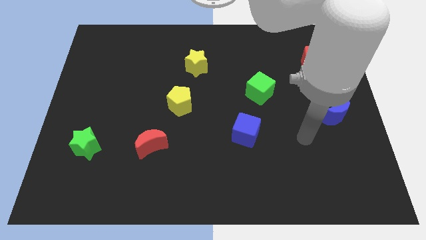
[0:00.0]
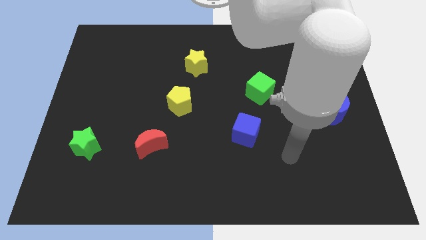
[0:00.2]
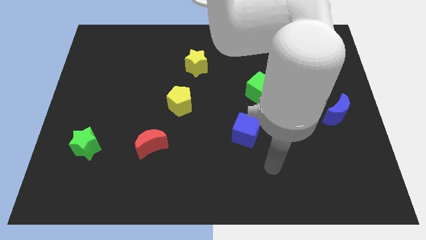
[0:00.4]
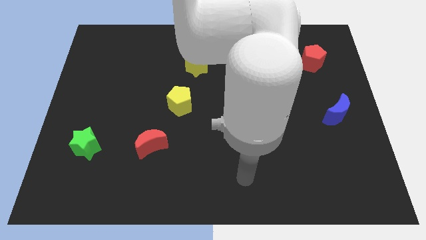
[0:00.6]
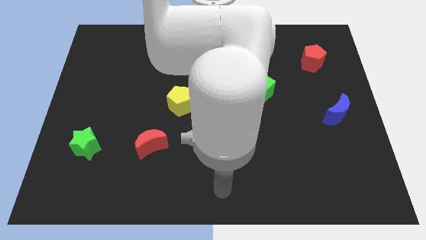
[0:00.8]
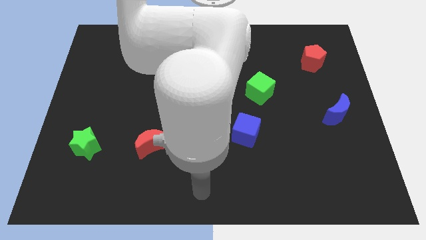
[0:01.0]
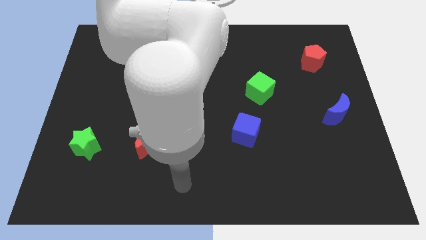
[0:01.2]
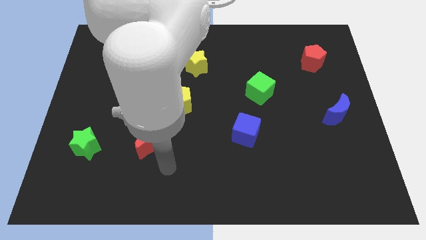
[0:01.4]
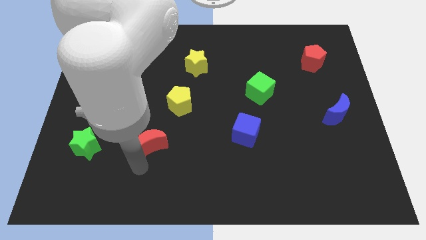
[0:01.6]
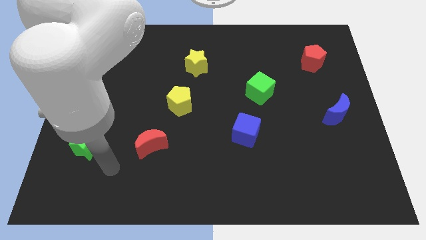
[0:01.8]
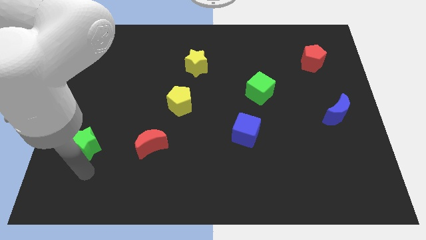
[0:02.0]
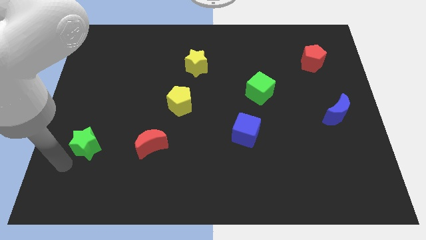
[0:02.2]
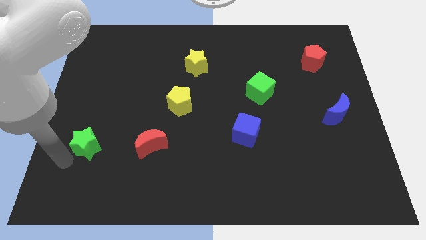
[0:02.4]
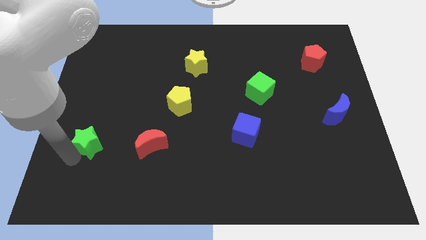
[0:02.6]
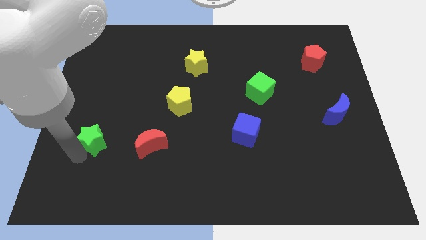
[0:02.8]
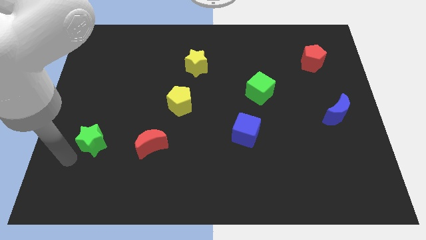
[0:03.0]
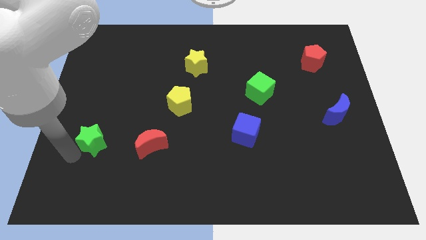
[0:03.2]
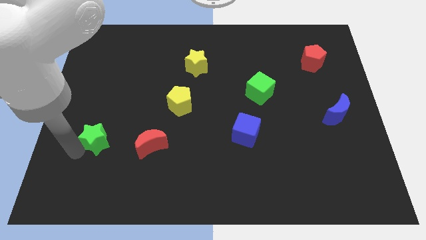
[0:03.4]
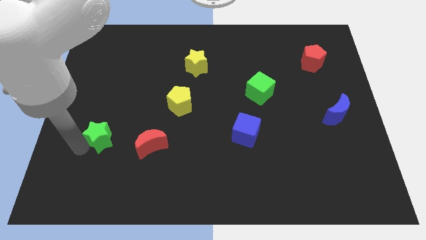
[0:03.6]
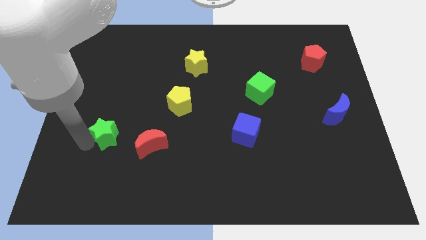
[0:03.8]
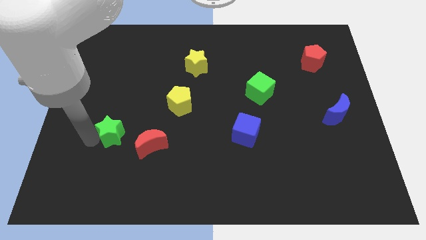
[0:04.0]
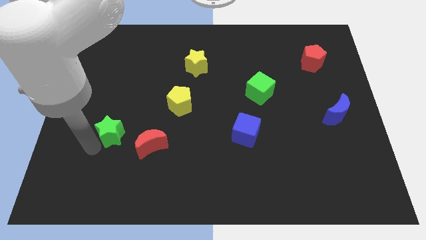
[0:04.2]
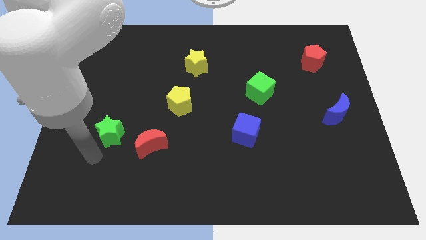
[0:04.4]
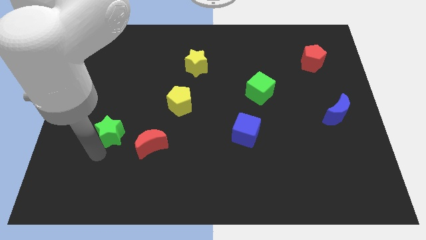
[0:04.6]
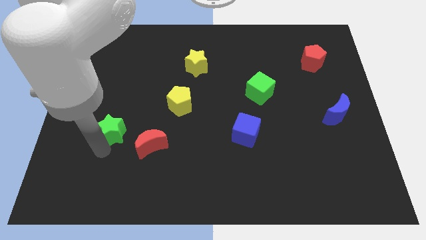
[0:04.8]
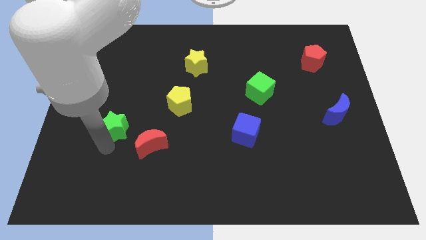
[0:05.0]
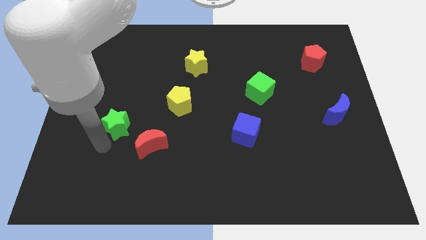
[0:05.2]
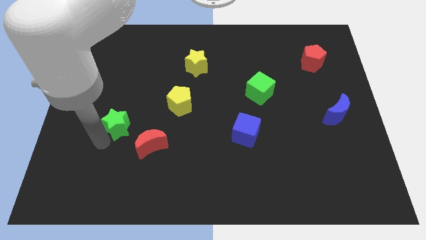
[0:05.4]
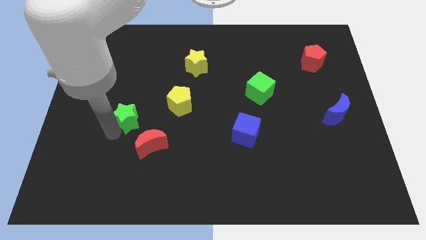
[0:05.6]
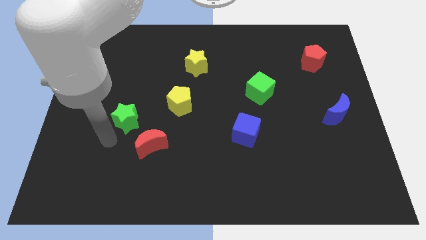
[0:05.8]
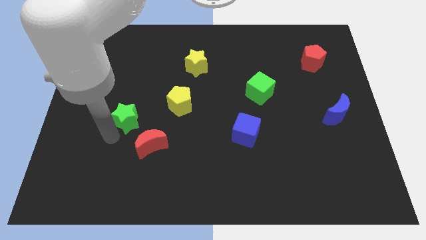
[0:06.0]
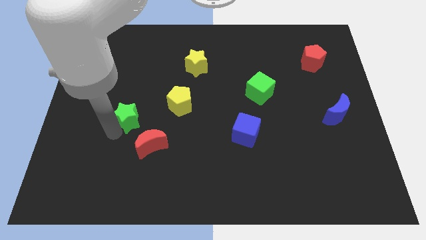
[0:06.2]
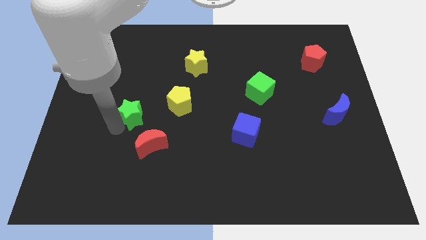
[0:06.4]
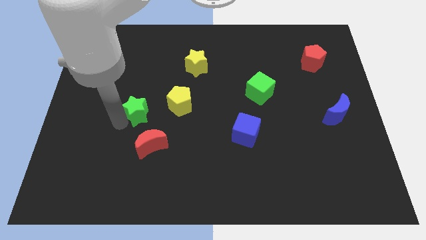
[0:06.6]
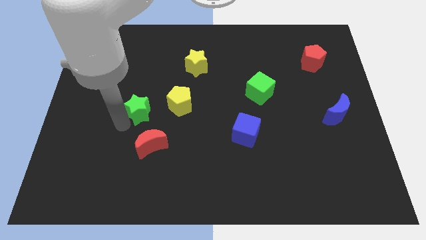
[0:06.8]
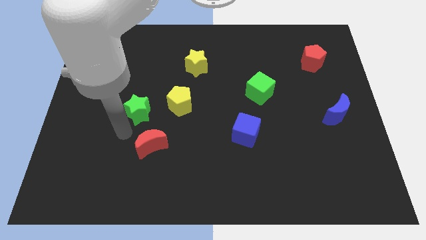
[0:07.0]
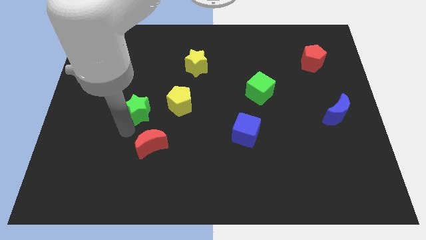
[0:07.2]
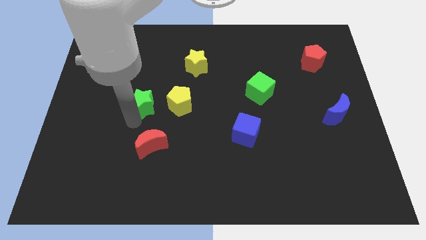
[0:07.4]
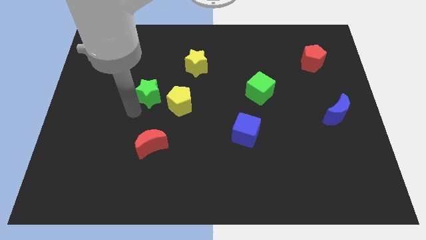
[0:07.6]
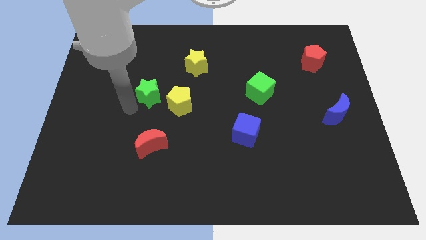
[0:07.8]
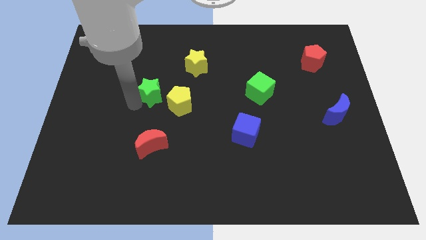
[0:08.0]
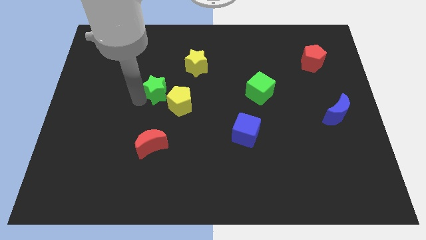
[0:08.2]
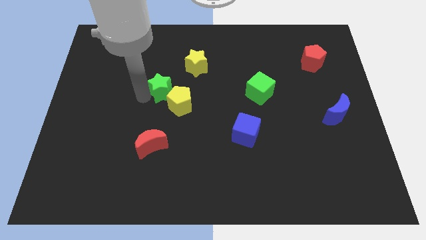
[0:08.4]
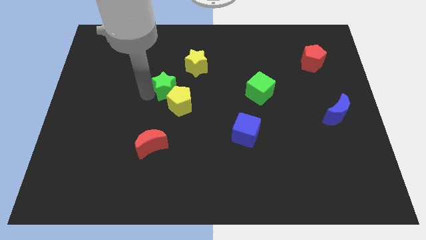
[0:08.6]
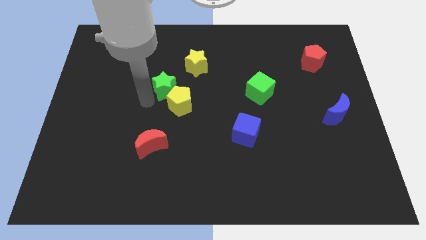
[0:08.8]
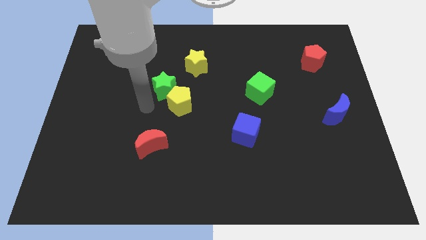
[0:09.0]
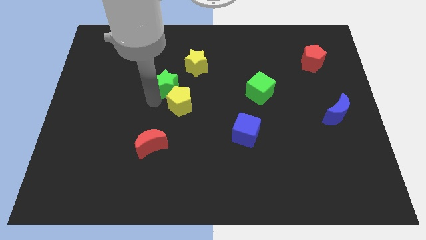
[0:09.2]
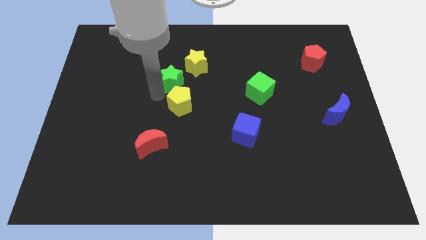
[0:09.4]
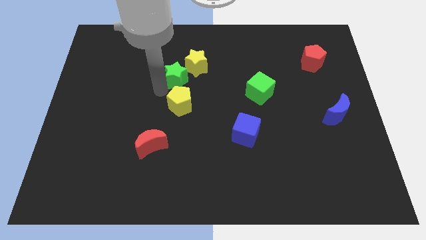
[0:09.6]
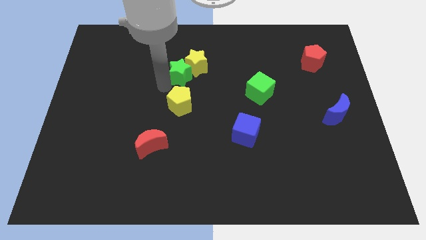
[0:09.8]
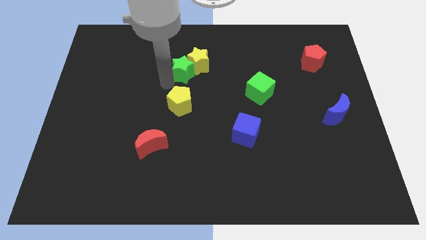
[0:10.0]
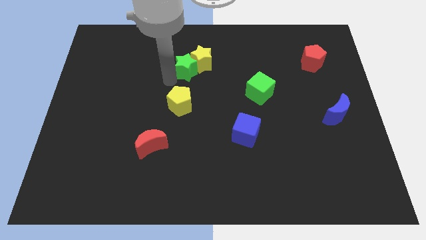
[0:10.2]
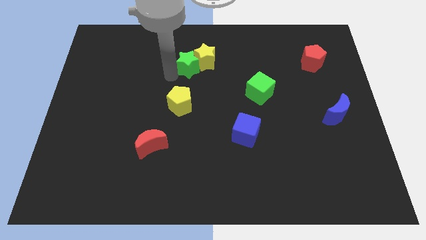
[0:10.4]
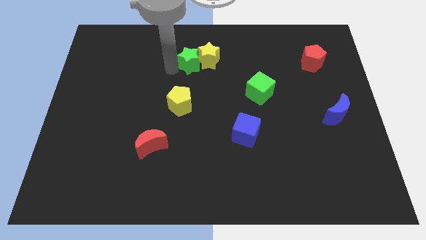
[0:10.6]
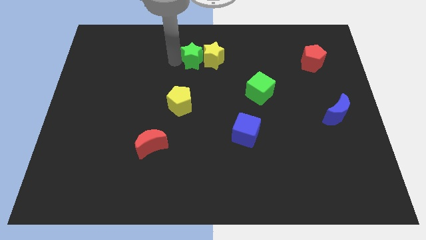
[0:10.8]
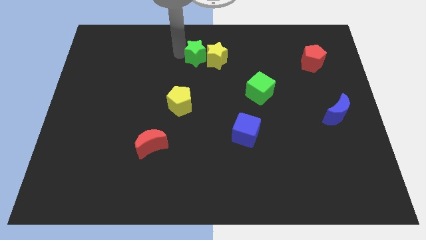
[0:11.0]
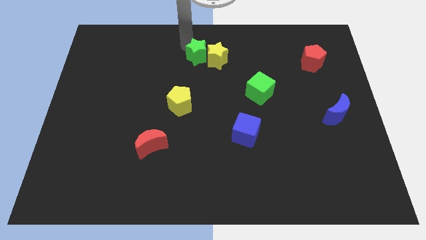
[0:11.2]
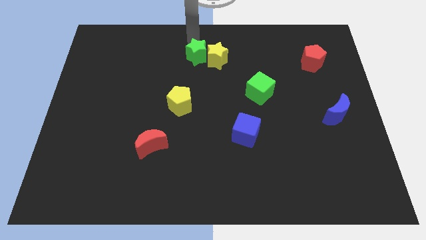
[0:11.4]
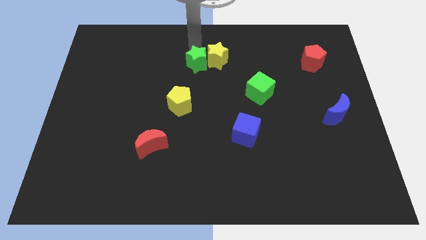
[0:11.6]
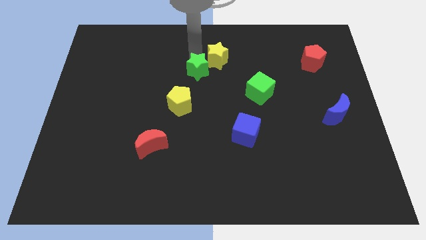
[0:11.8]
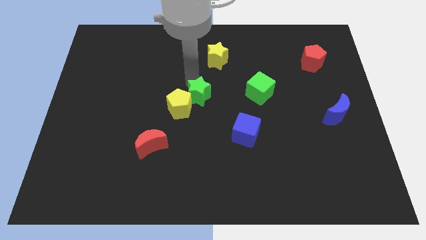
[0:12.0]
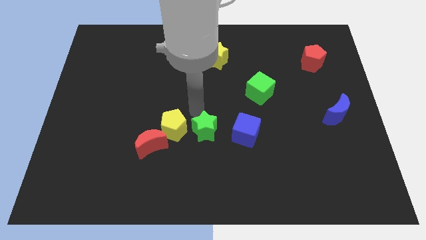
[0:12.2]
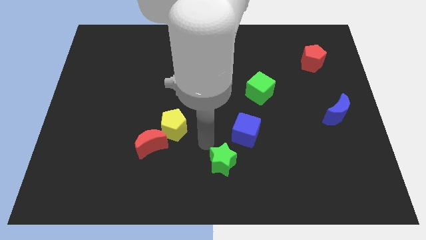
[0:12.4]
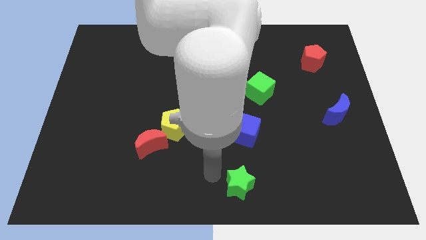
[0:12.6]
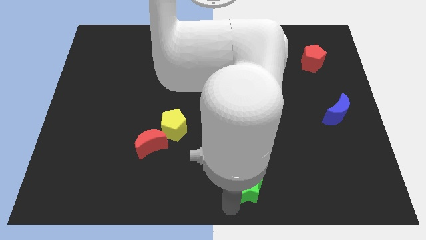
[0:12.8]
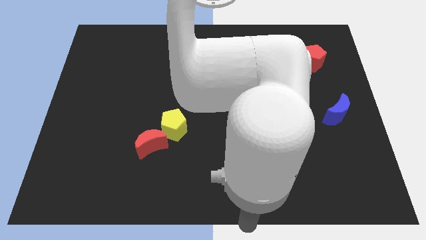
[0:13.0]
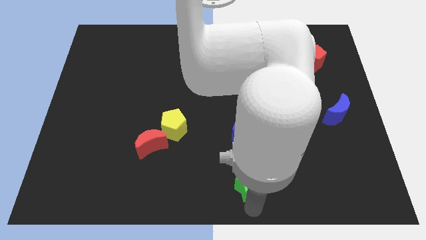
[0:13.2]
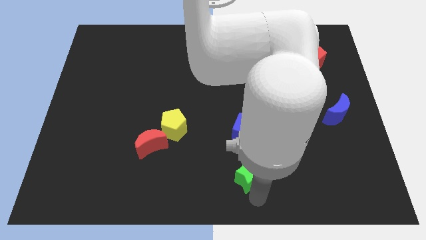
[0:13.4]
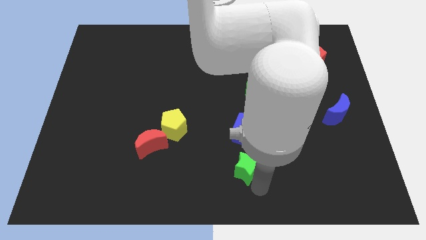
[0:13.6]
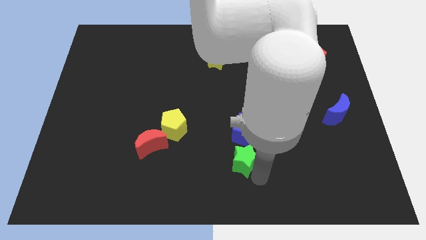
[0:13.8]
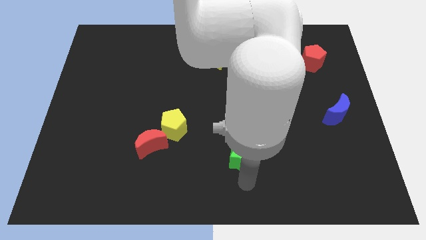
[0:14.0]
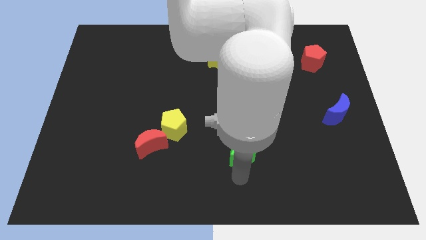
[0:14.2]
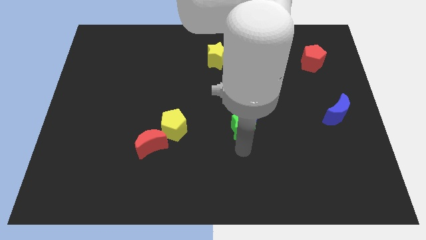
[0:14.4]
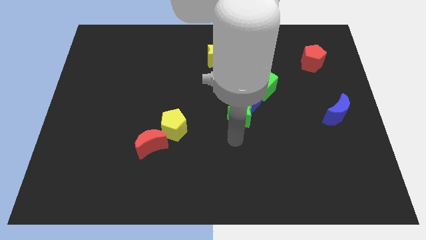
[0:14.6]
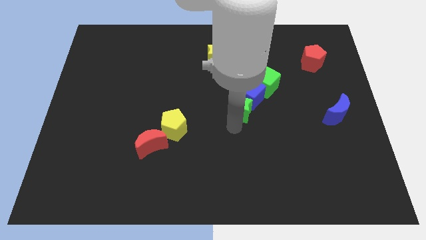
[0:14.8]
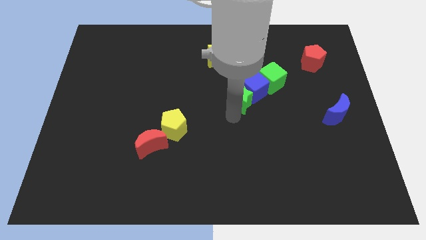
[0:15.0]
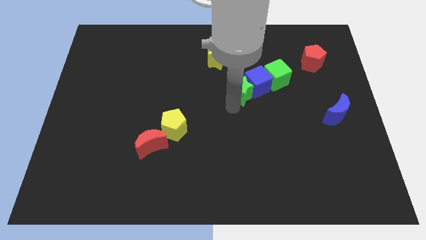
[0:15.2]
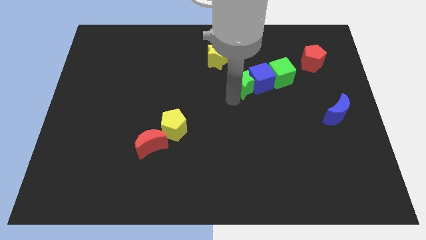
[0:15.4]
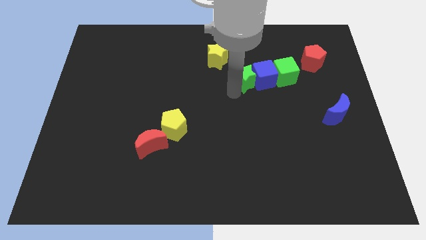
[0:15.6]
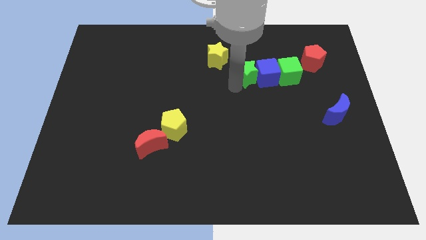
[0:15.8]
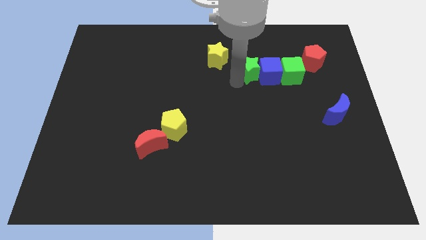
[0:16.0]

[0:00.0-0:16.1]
push the green star right of the yellow star
